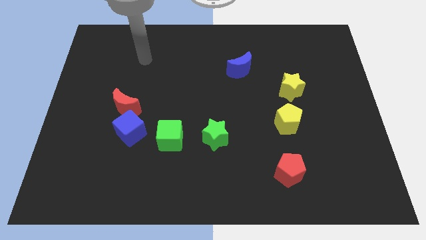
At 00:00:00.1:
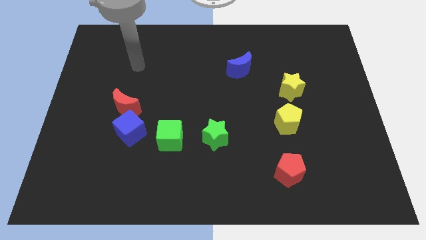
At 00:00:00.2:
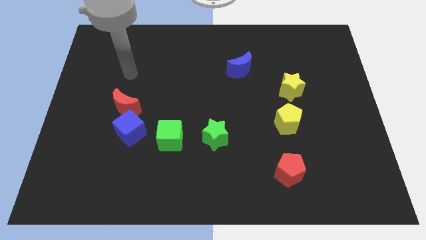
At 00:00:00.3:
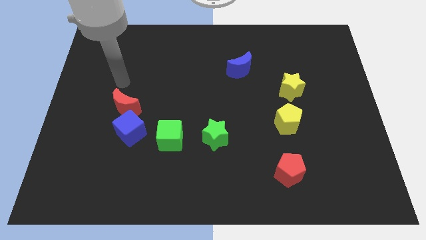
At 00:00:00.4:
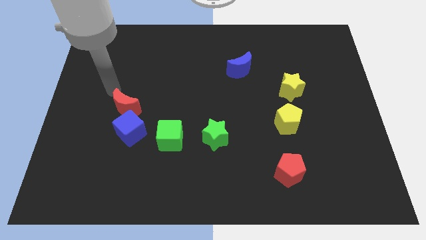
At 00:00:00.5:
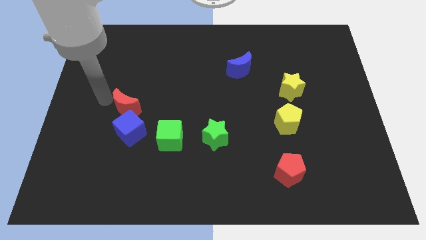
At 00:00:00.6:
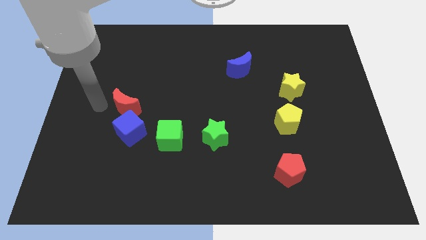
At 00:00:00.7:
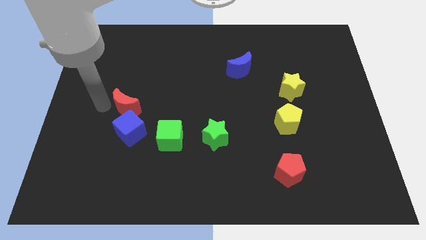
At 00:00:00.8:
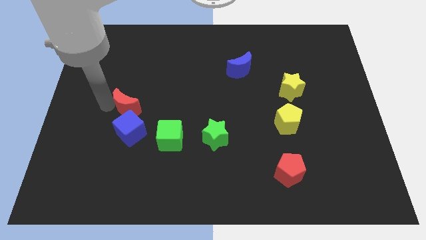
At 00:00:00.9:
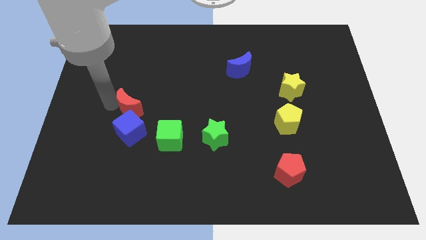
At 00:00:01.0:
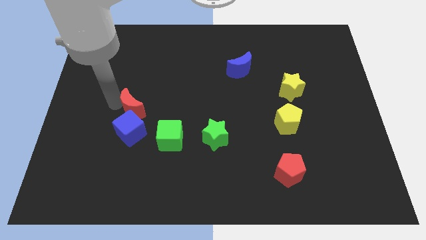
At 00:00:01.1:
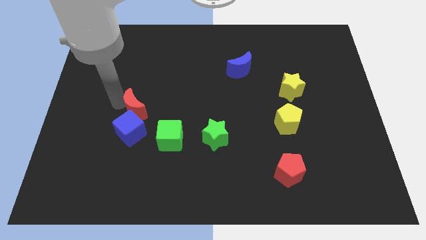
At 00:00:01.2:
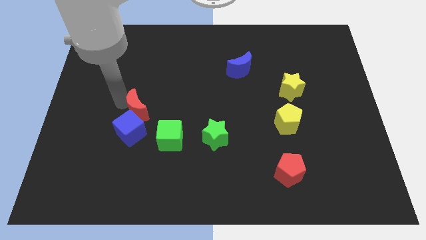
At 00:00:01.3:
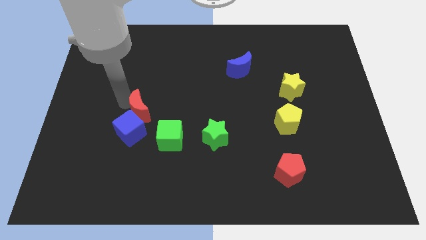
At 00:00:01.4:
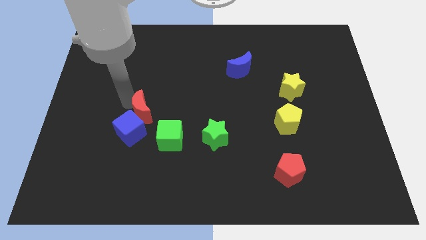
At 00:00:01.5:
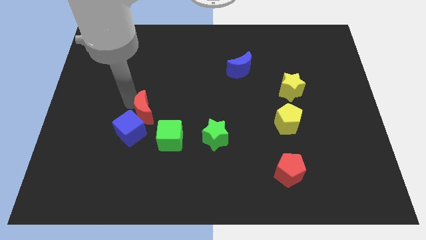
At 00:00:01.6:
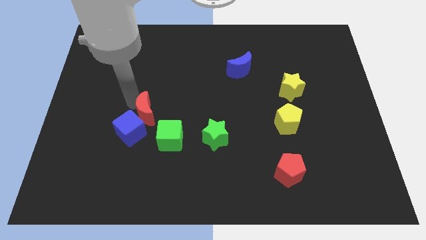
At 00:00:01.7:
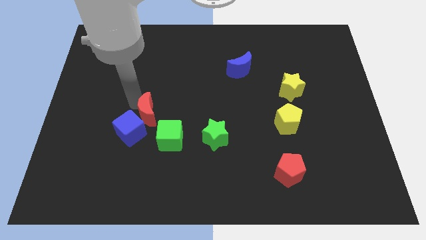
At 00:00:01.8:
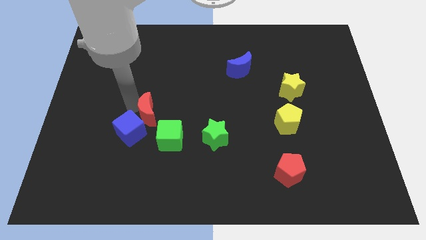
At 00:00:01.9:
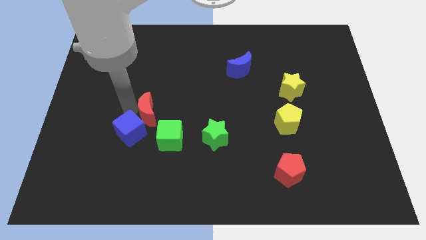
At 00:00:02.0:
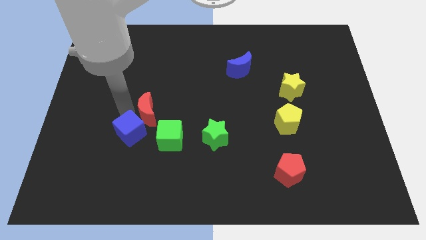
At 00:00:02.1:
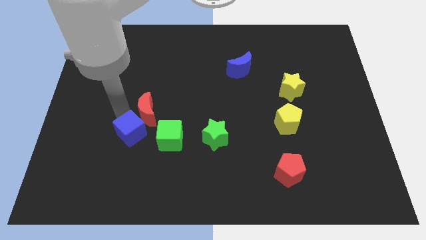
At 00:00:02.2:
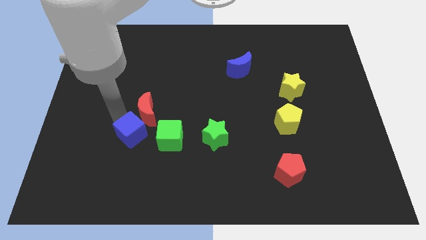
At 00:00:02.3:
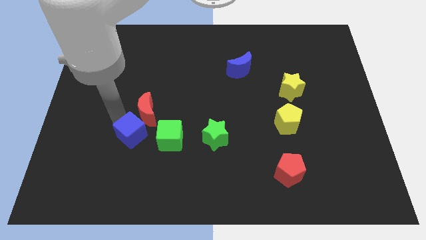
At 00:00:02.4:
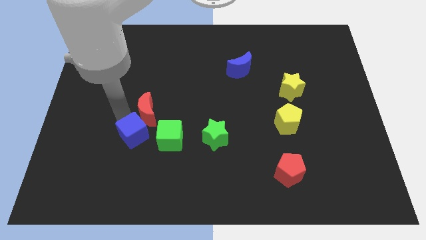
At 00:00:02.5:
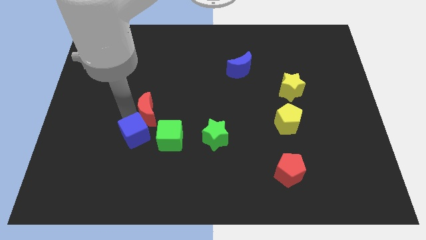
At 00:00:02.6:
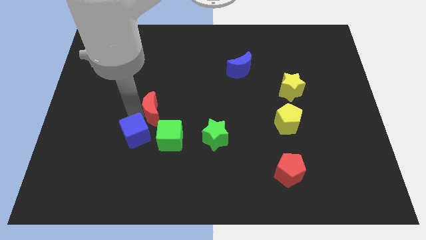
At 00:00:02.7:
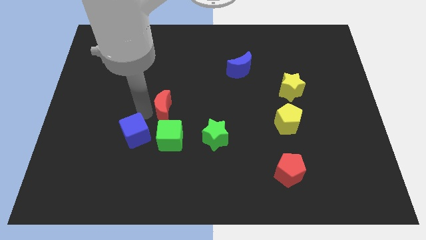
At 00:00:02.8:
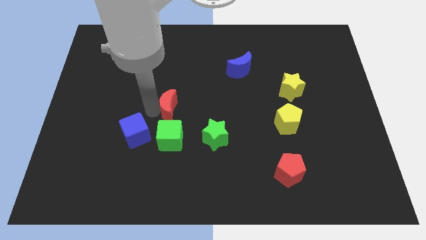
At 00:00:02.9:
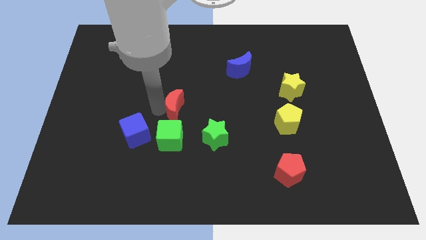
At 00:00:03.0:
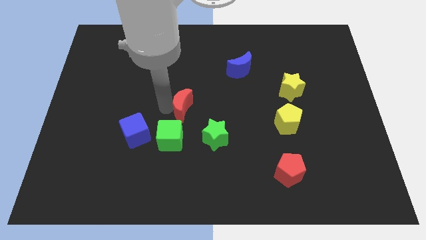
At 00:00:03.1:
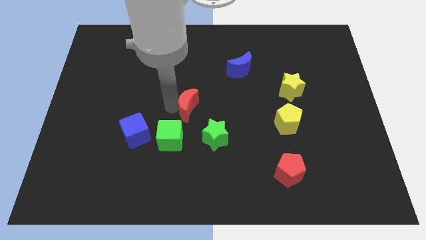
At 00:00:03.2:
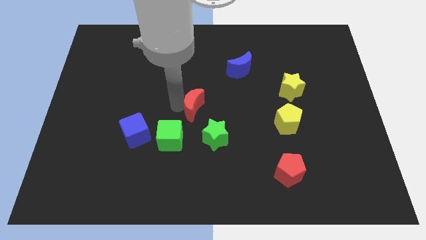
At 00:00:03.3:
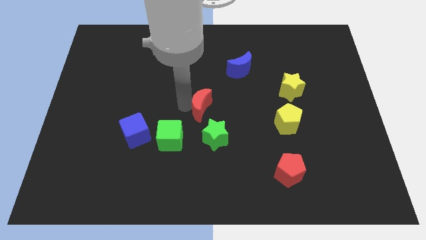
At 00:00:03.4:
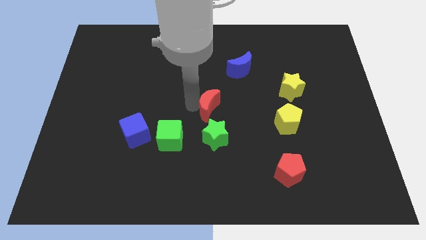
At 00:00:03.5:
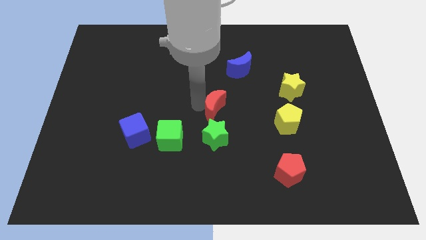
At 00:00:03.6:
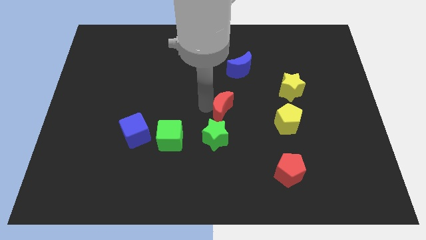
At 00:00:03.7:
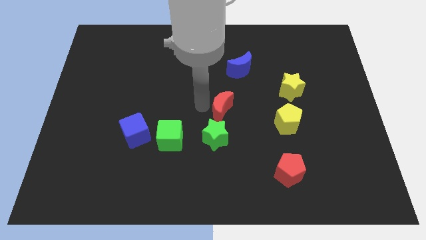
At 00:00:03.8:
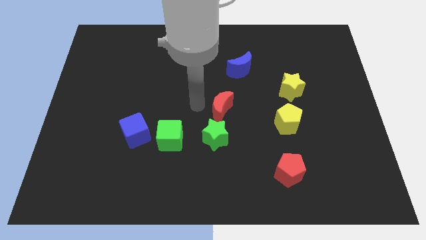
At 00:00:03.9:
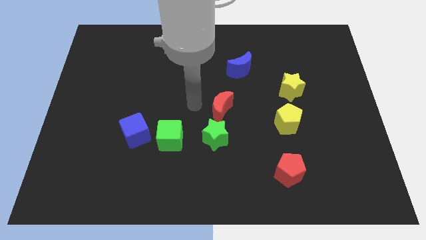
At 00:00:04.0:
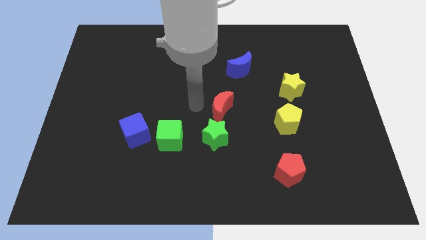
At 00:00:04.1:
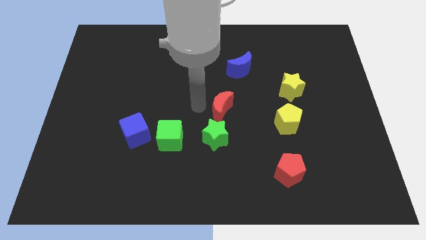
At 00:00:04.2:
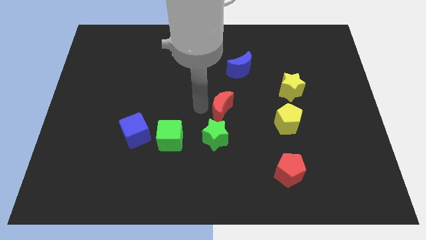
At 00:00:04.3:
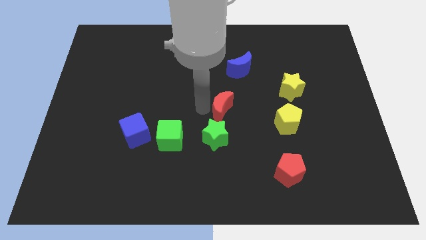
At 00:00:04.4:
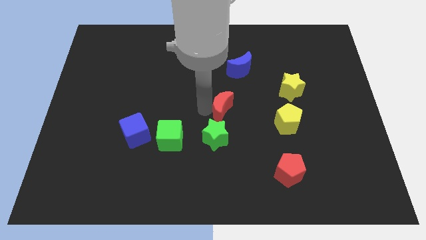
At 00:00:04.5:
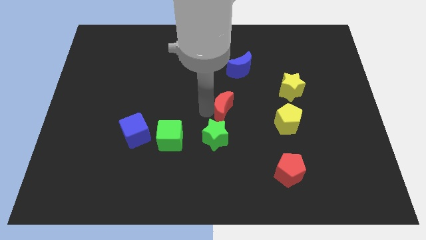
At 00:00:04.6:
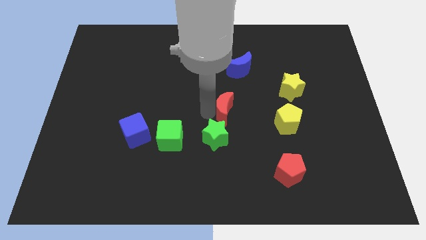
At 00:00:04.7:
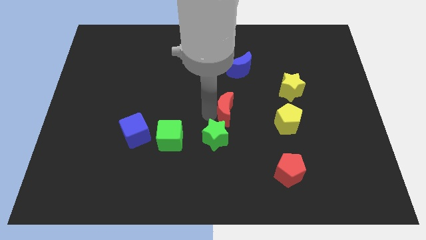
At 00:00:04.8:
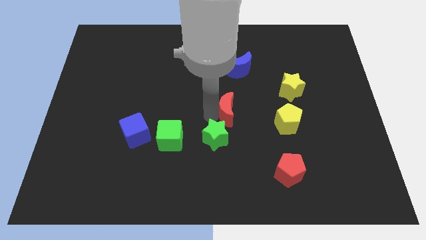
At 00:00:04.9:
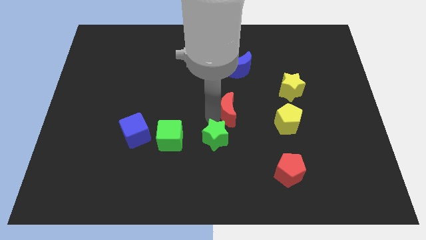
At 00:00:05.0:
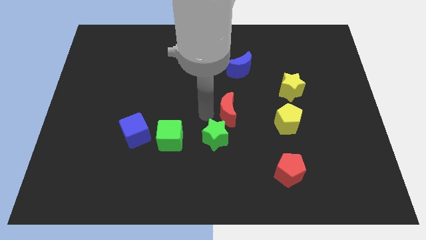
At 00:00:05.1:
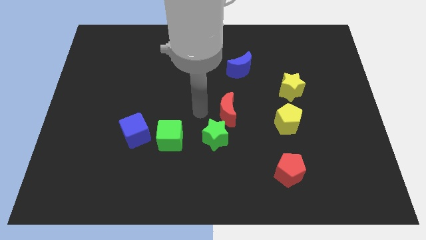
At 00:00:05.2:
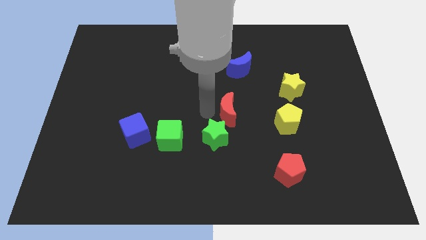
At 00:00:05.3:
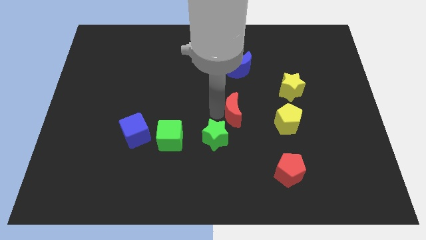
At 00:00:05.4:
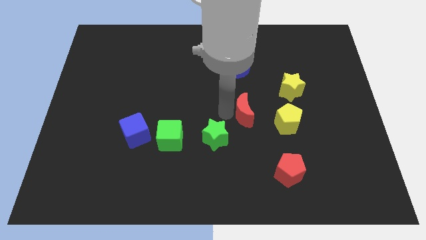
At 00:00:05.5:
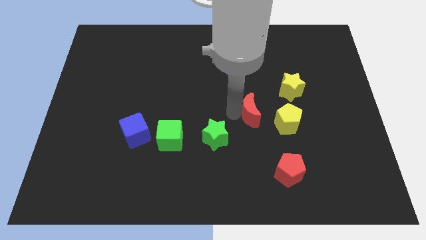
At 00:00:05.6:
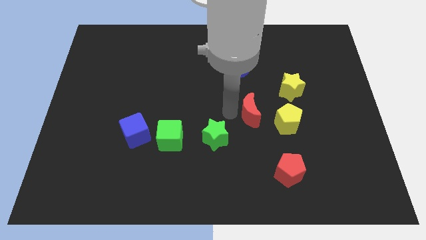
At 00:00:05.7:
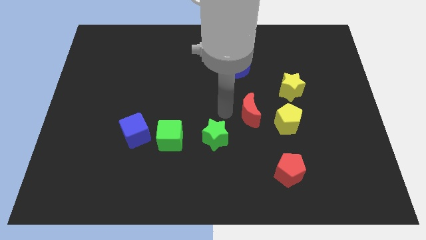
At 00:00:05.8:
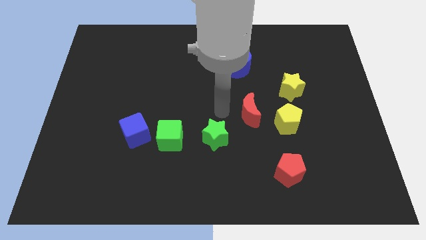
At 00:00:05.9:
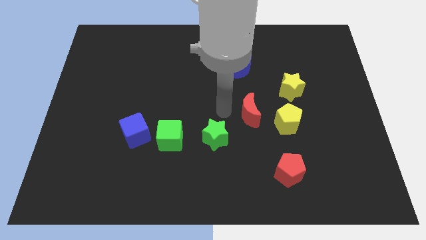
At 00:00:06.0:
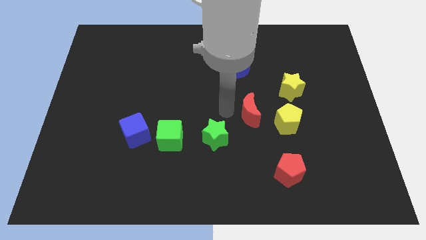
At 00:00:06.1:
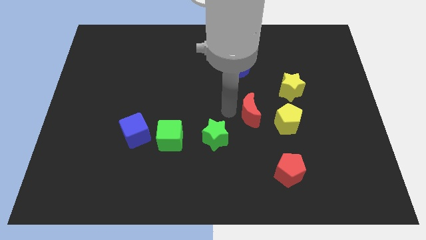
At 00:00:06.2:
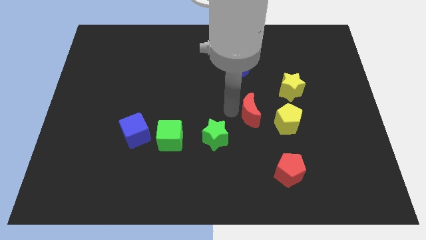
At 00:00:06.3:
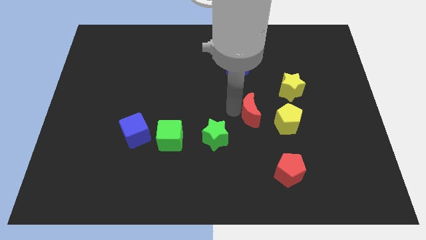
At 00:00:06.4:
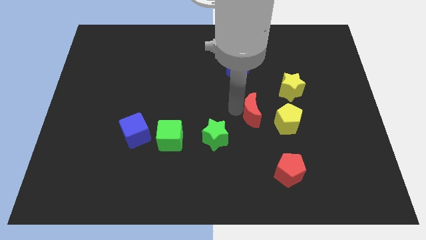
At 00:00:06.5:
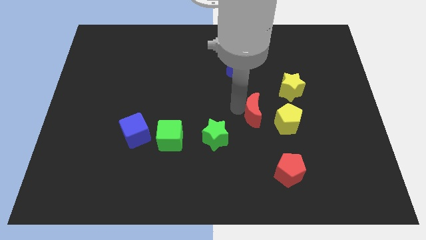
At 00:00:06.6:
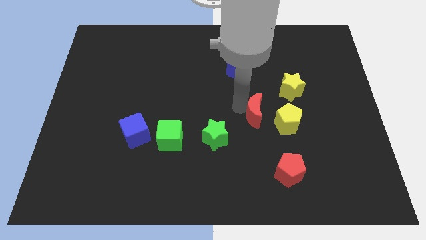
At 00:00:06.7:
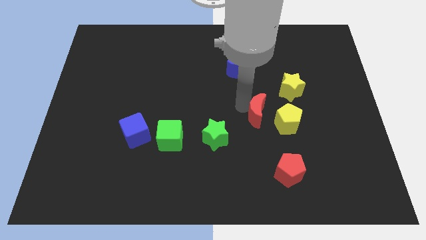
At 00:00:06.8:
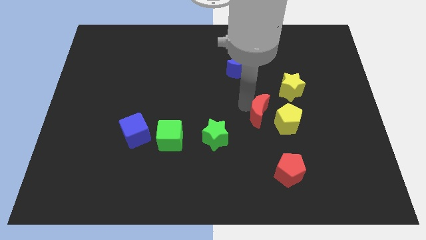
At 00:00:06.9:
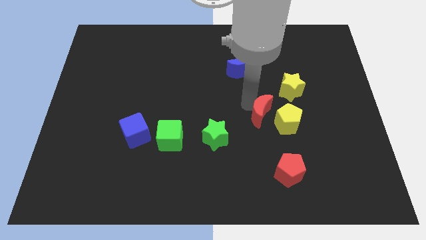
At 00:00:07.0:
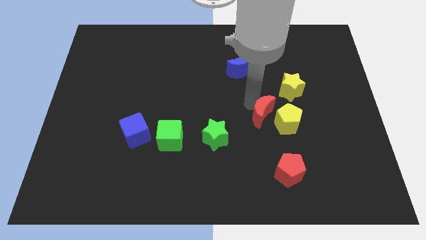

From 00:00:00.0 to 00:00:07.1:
move the red moon close to the yellow pentagon
